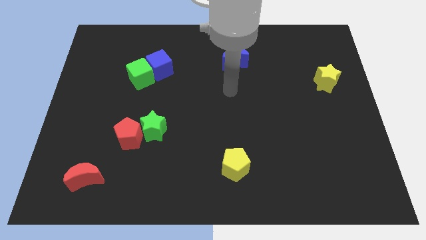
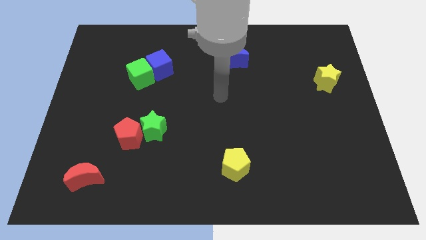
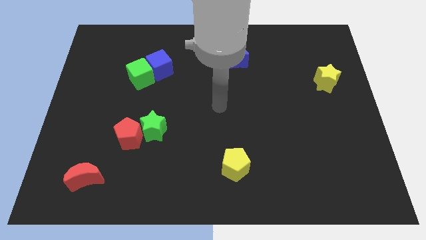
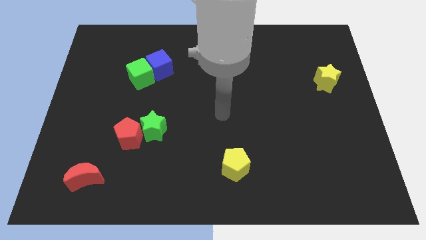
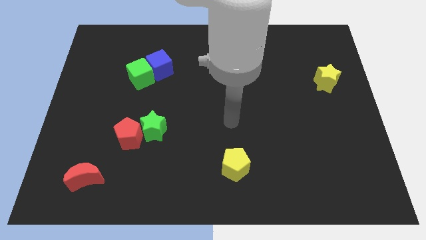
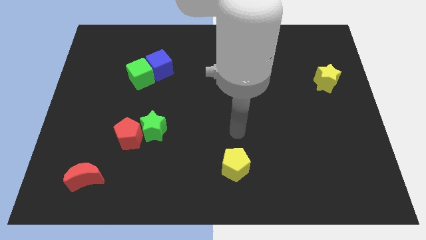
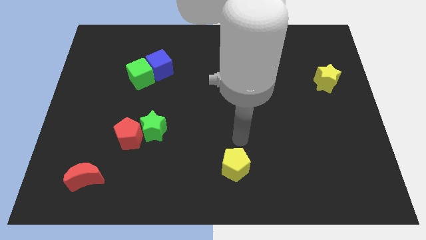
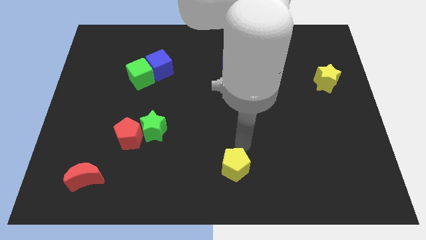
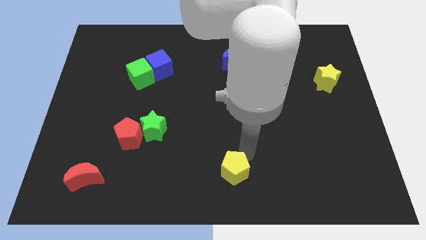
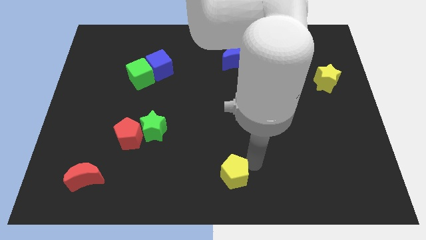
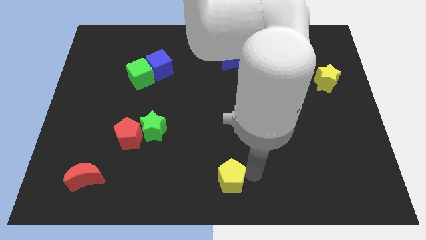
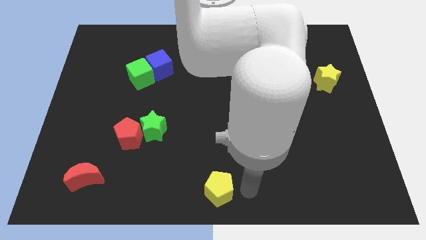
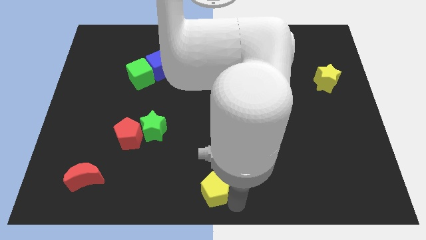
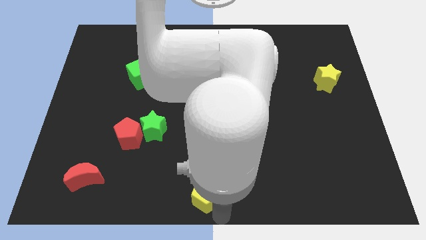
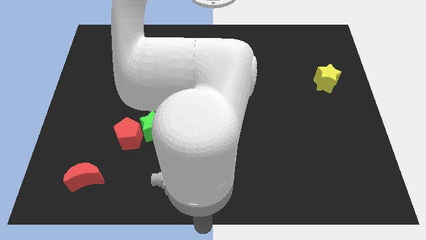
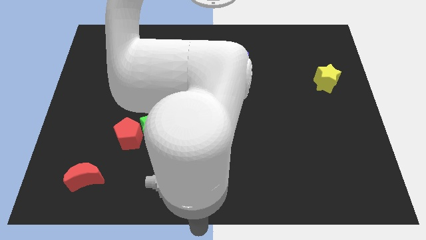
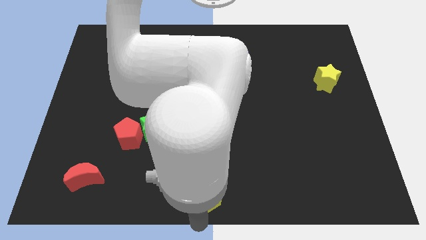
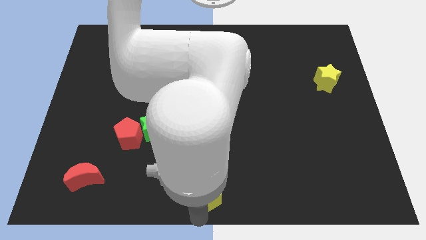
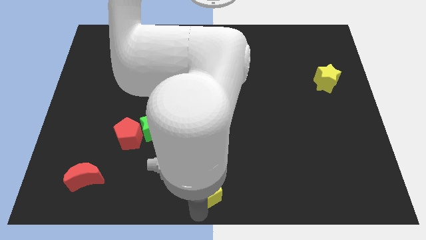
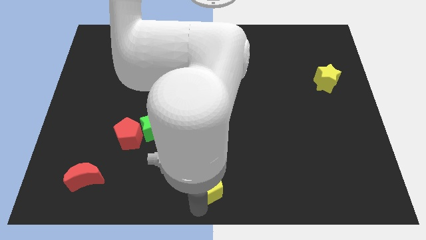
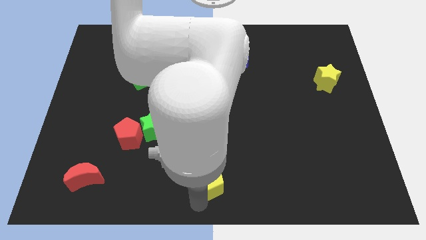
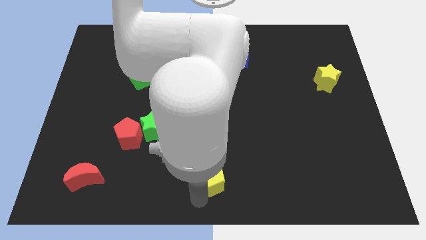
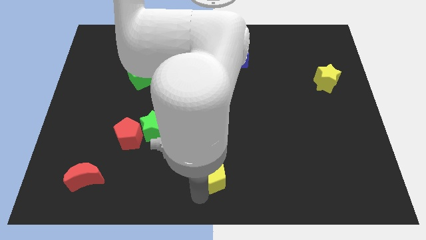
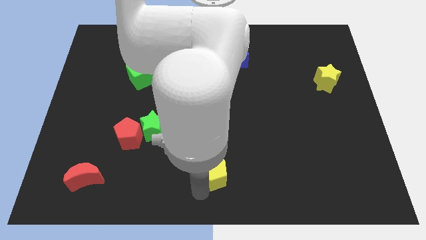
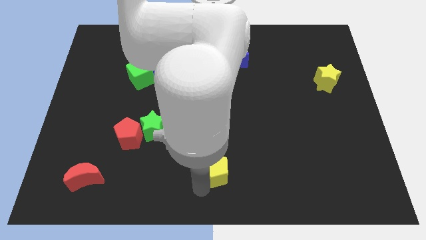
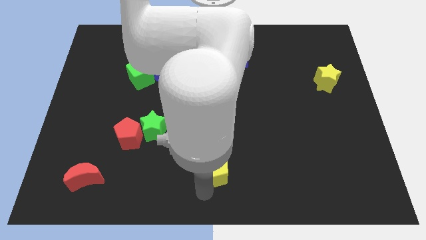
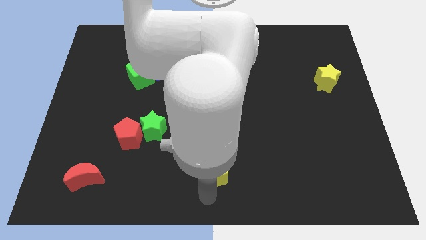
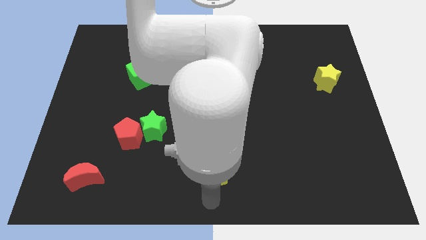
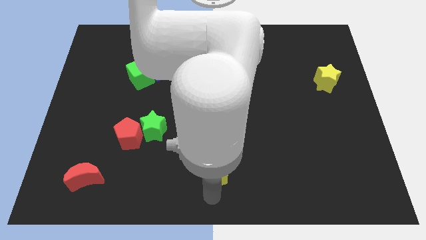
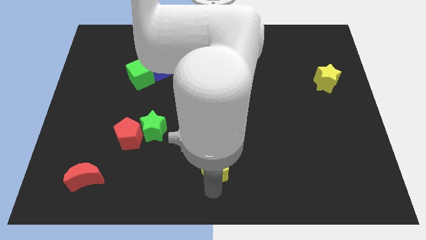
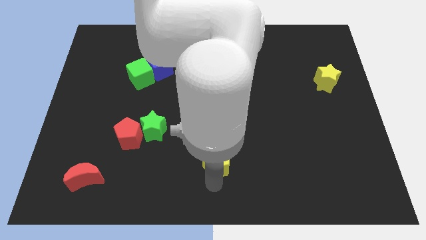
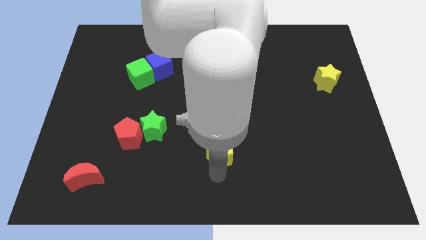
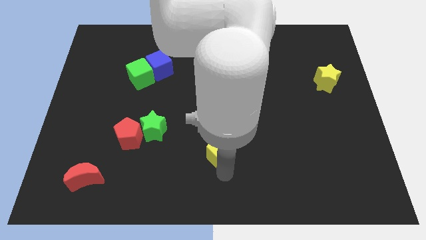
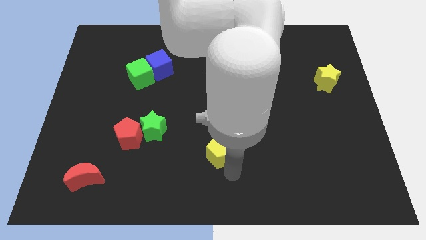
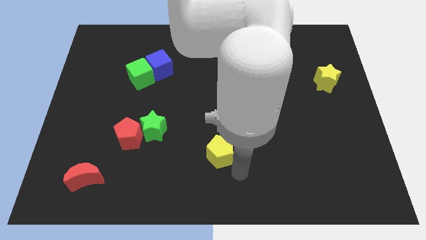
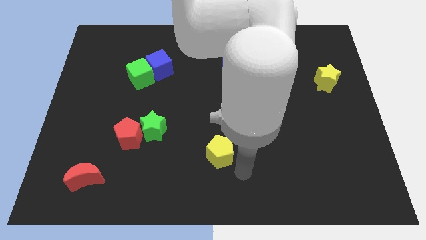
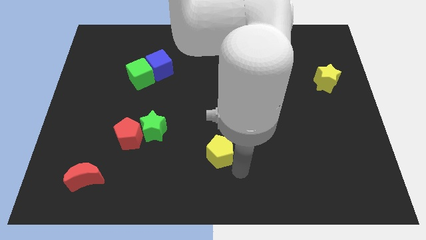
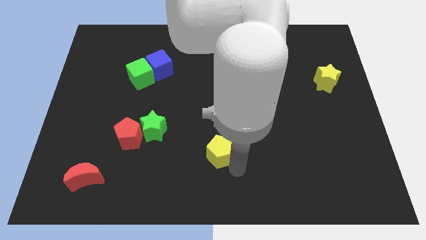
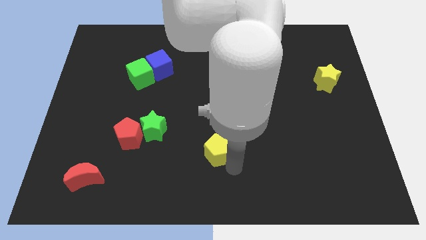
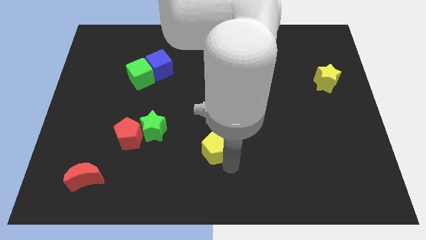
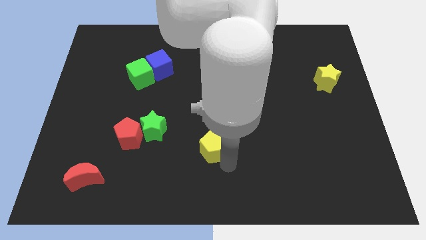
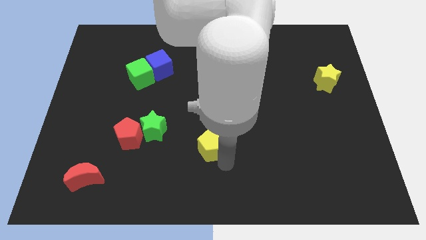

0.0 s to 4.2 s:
move the yellow pentagon upwards and left diagonally a little bit

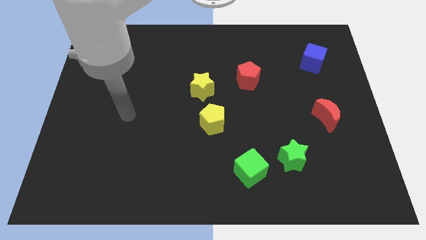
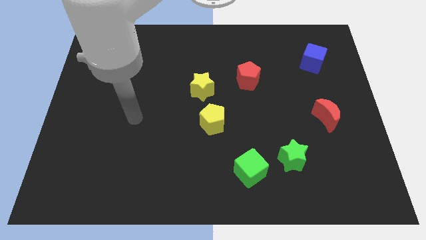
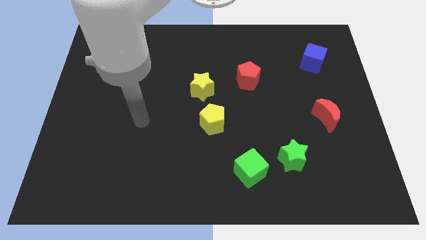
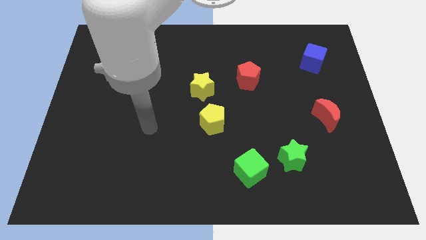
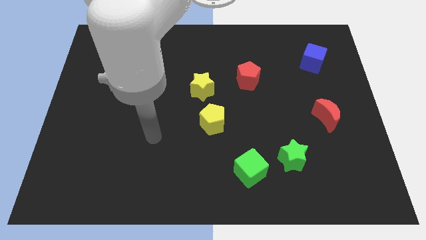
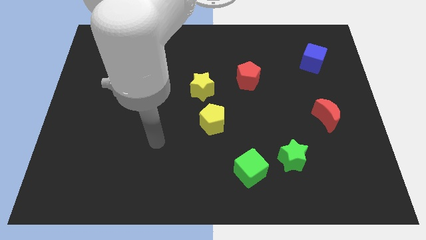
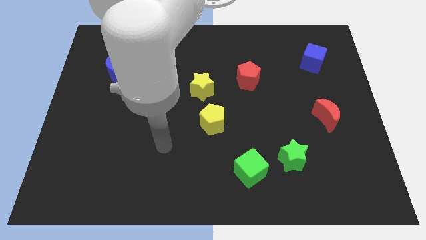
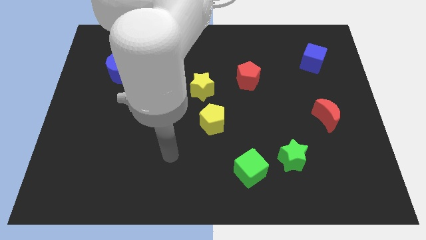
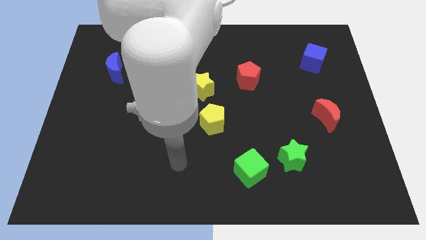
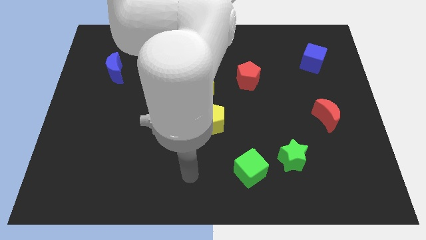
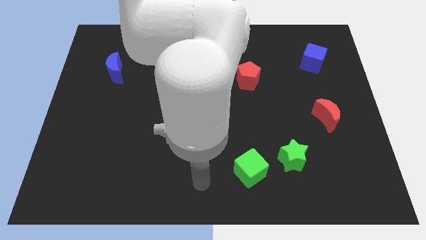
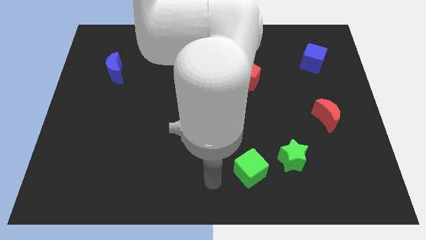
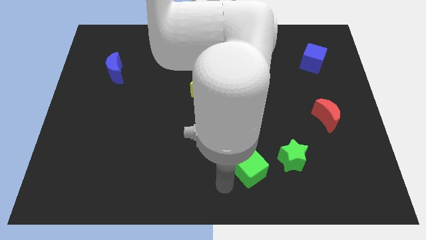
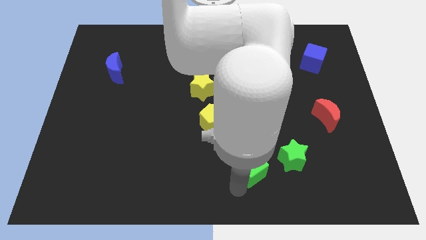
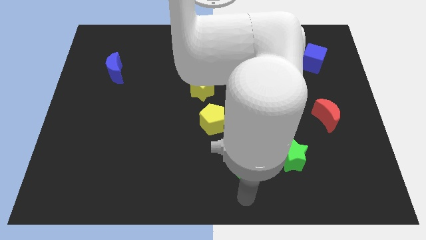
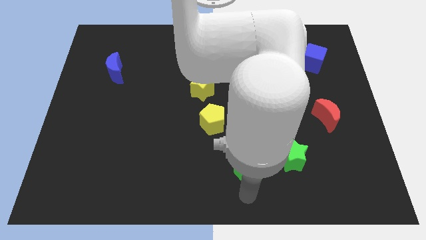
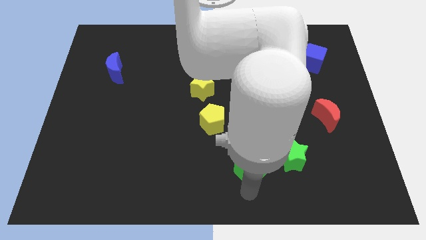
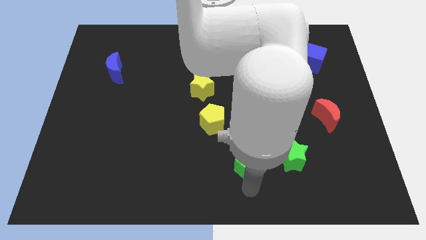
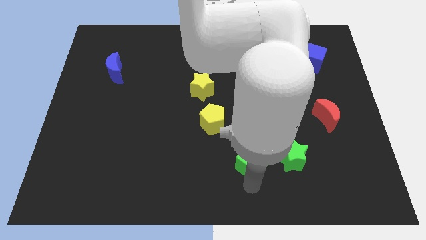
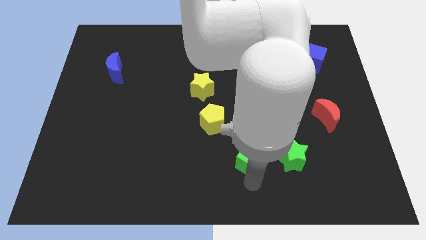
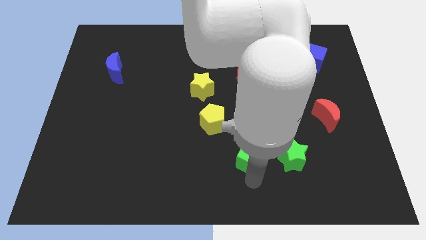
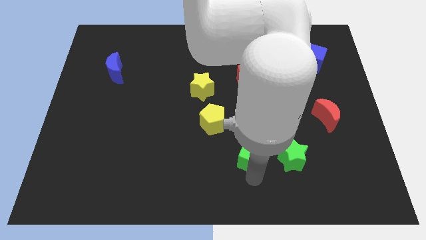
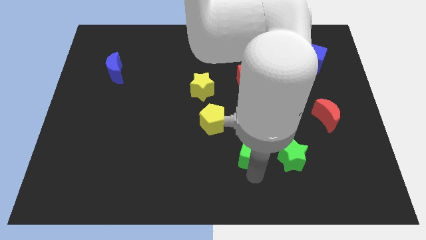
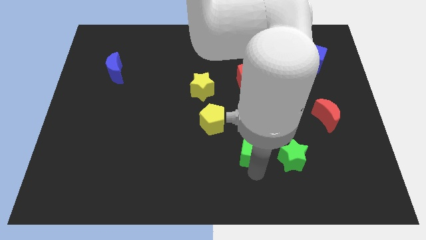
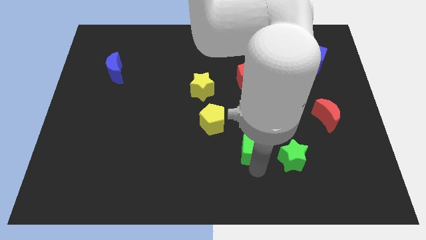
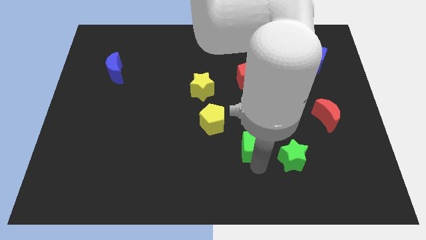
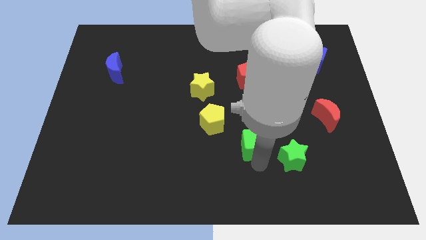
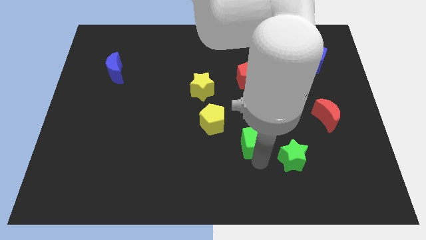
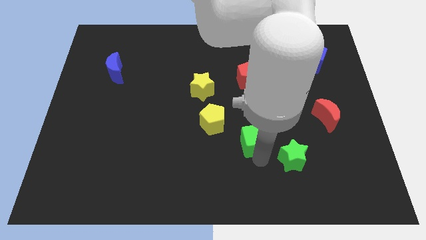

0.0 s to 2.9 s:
slide the green cube upwards somewhat

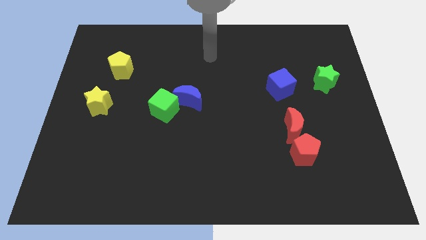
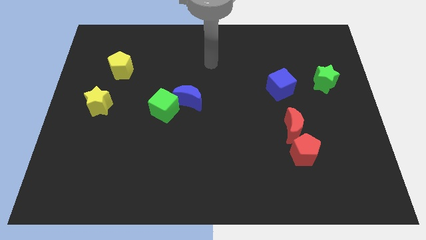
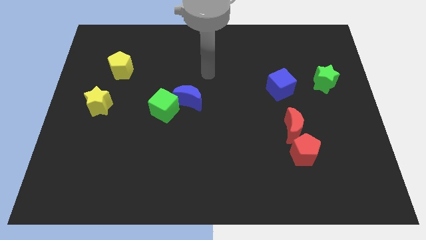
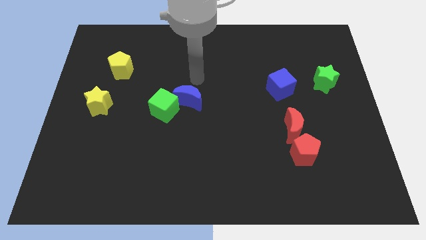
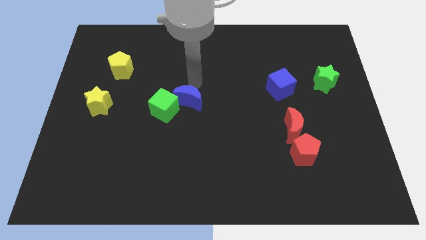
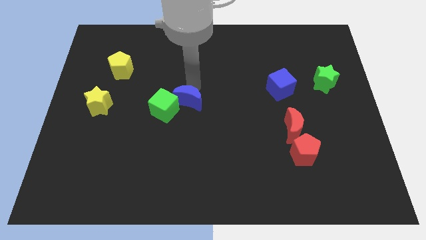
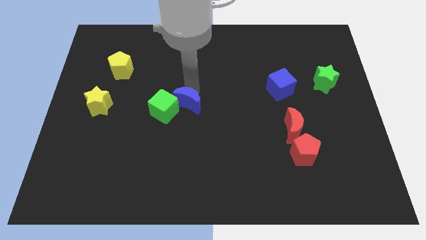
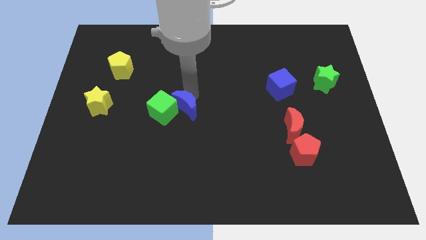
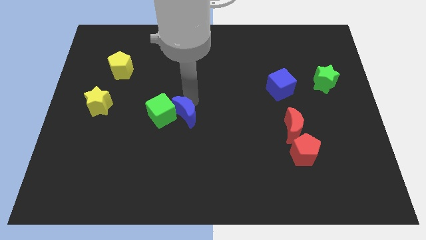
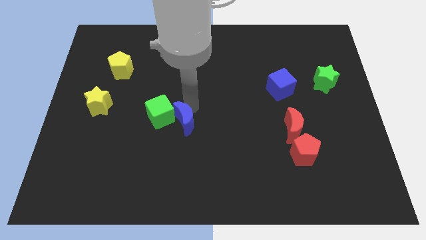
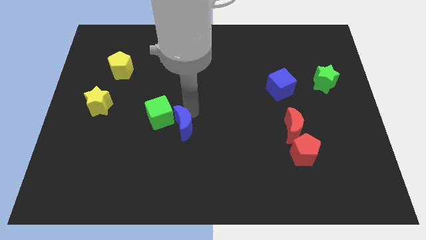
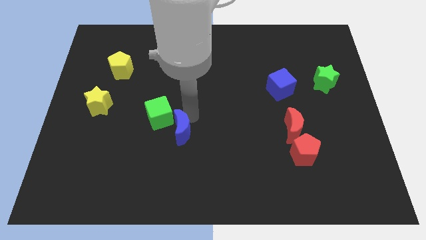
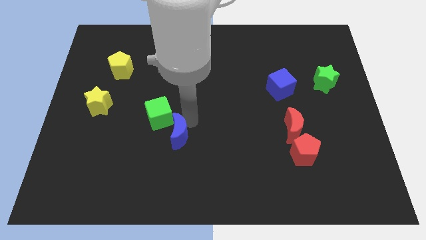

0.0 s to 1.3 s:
slightly slide the blue moon downwards and then to the left

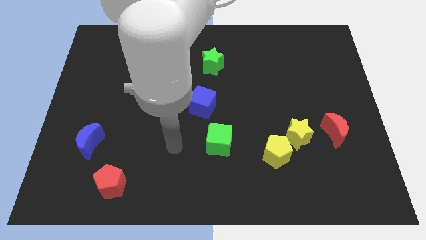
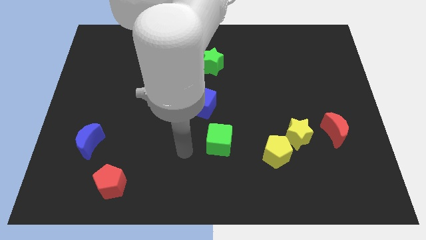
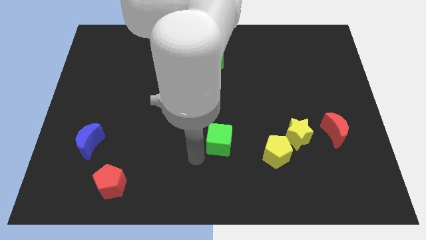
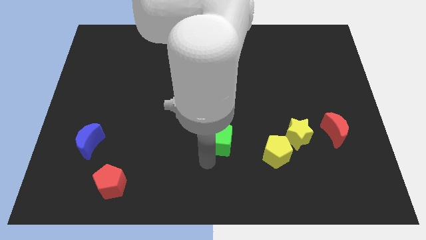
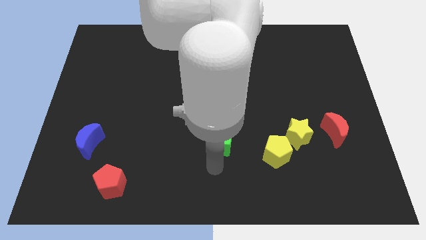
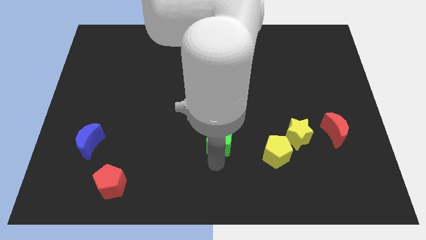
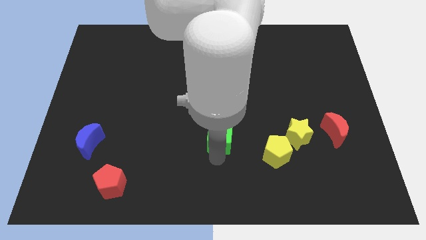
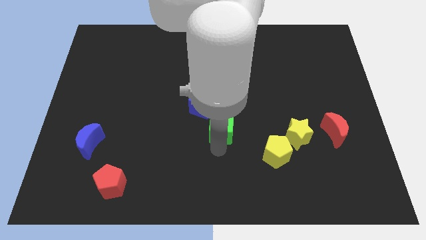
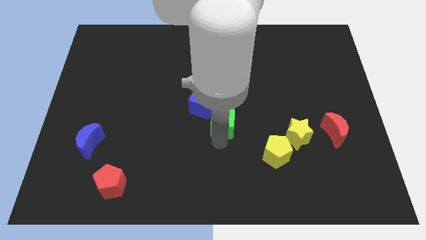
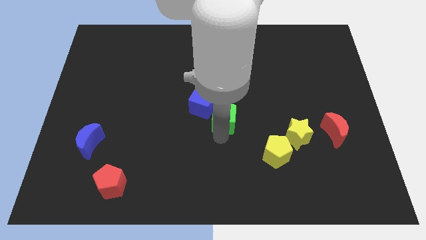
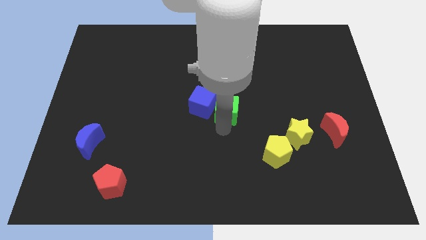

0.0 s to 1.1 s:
slide the green cube up somewhat
